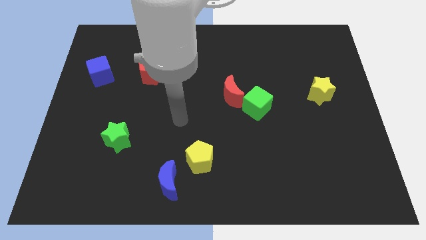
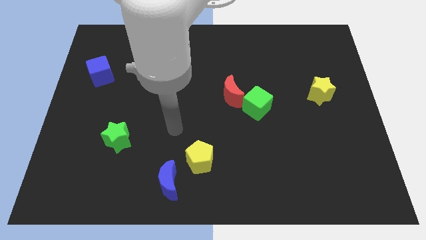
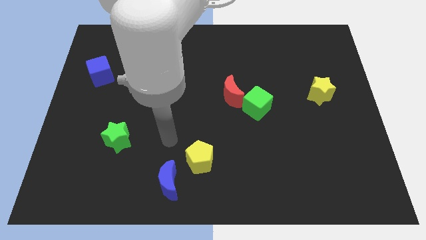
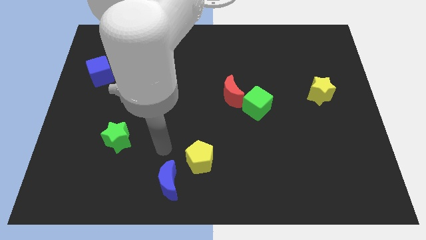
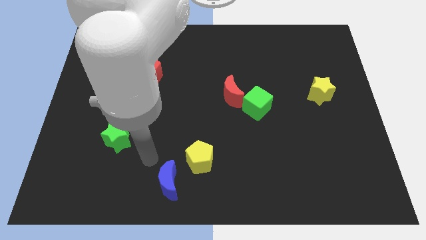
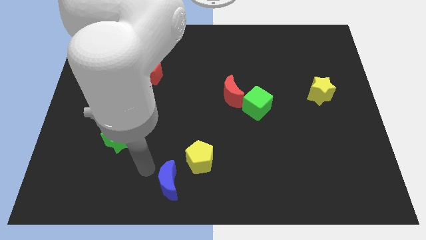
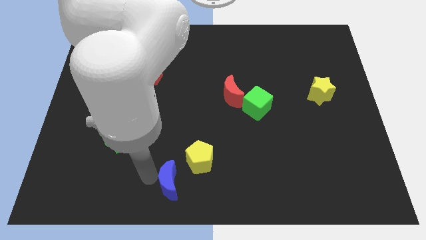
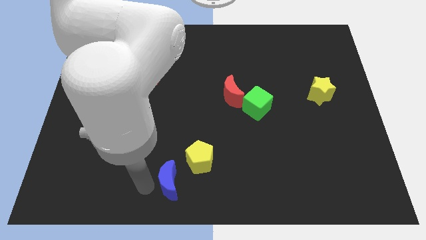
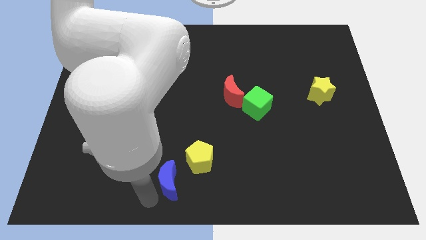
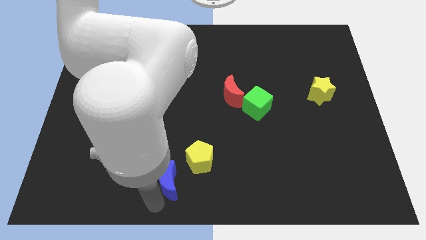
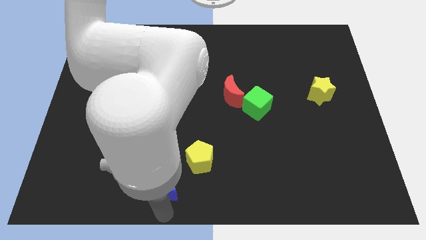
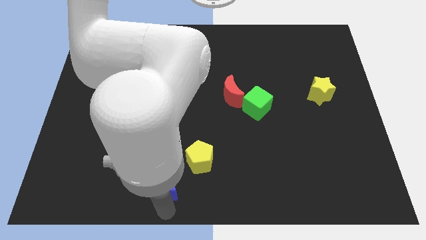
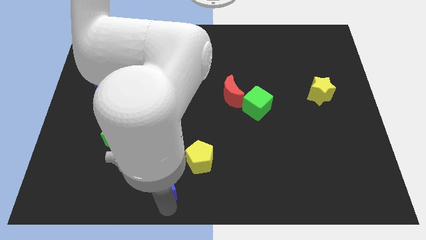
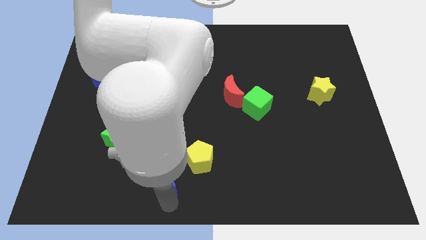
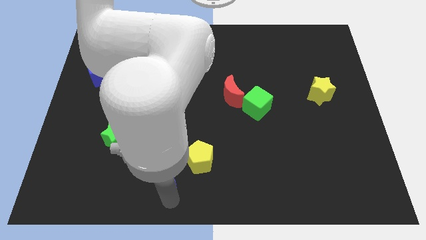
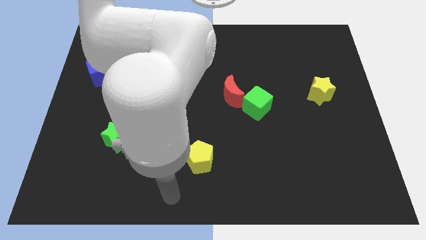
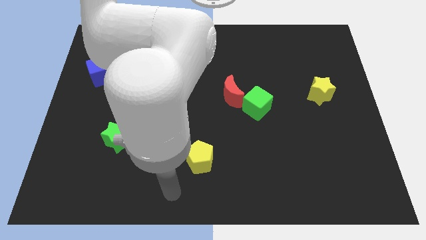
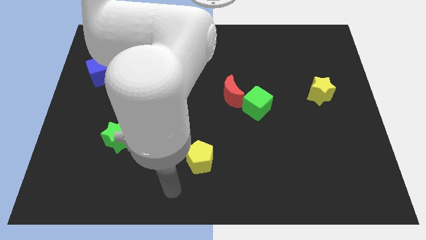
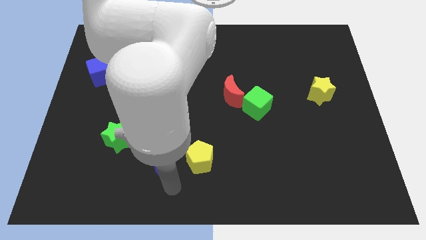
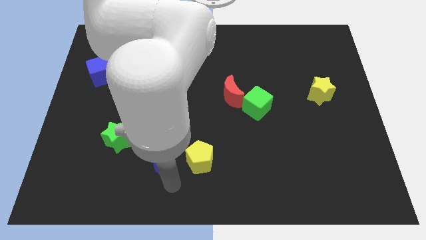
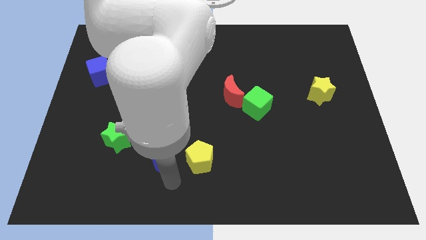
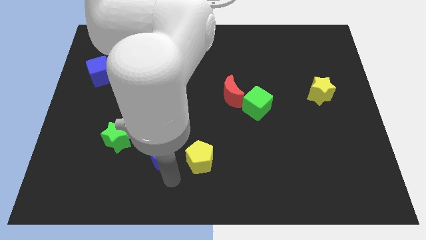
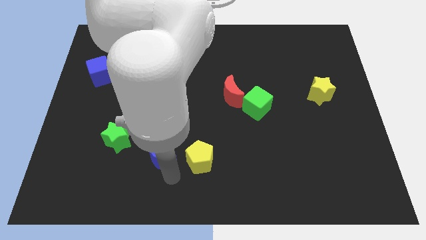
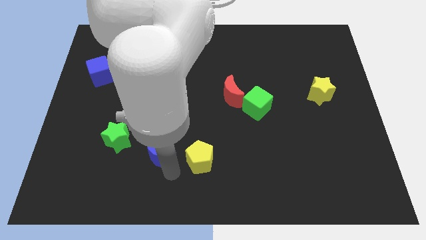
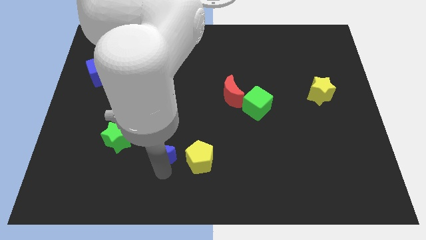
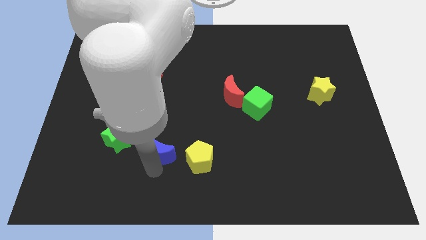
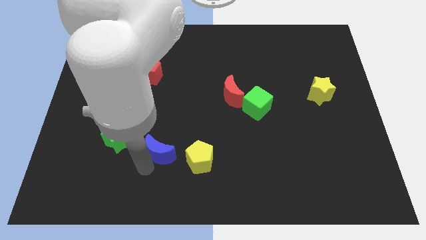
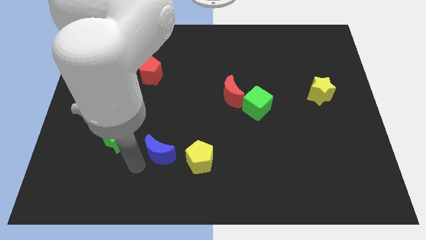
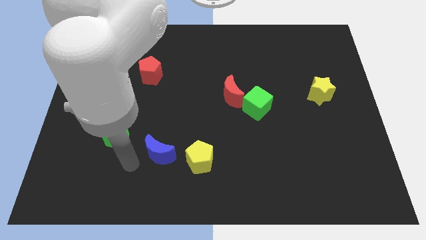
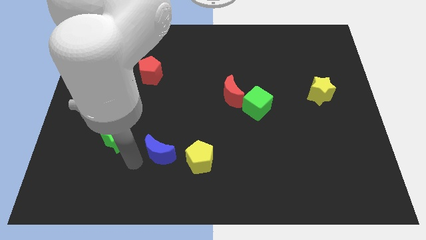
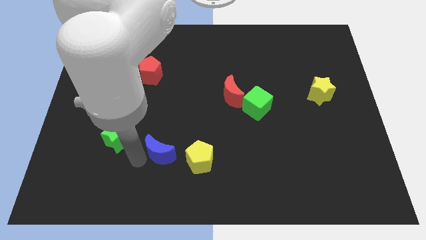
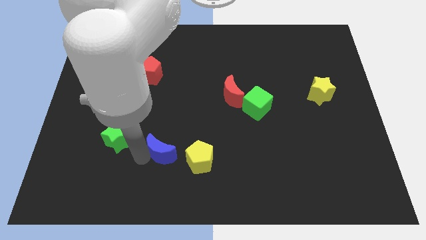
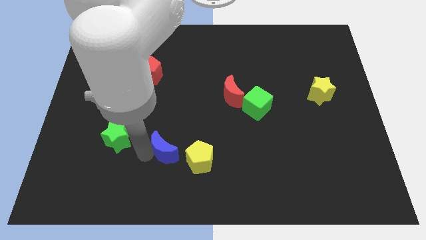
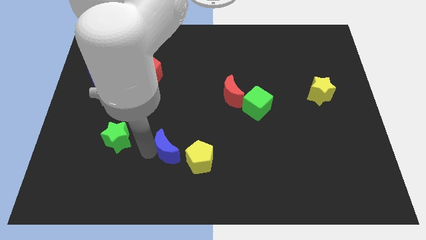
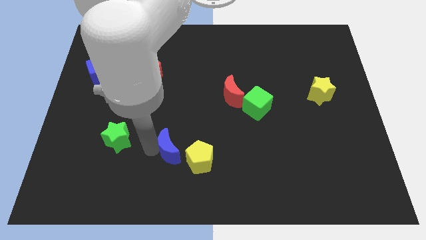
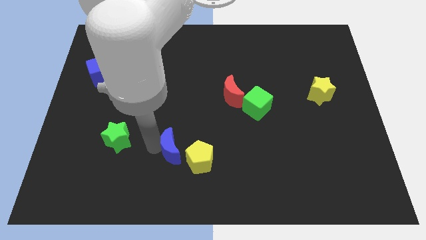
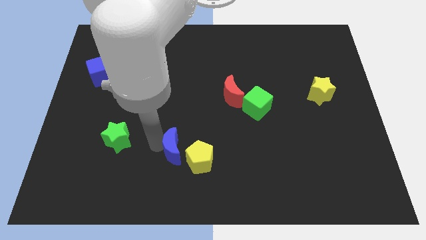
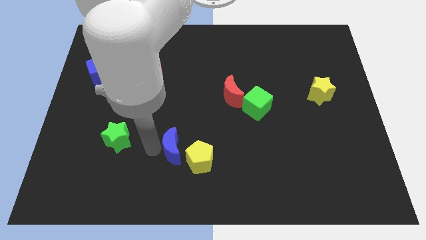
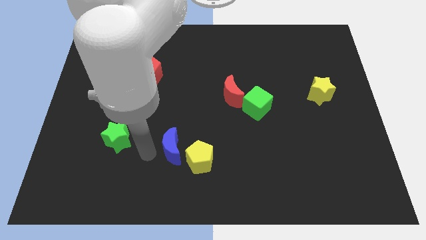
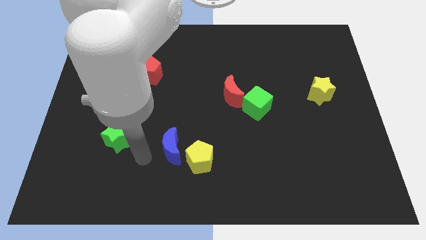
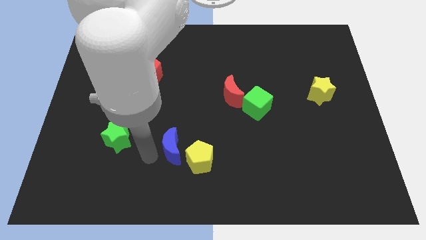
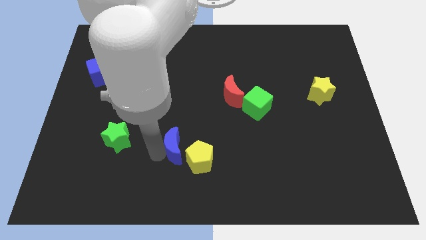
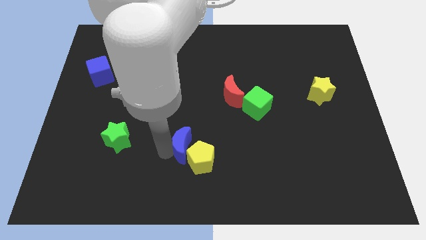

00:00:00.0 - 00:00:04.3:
slide the blue moon somewhat upwards and right diagonally

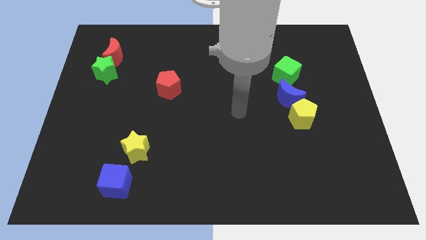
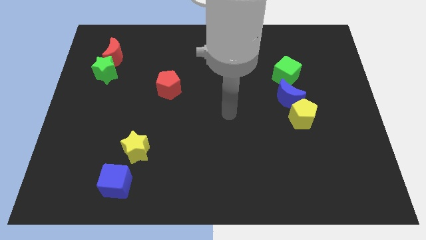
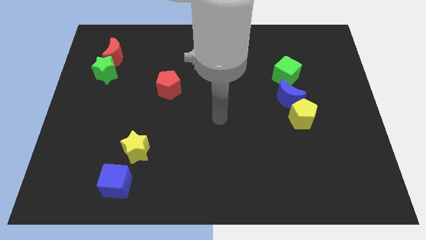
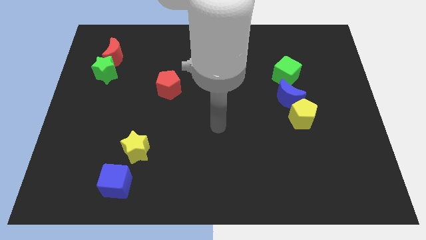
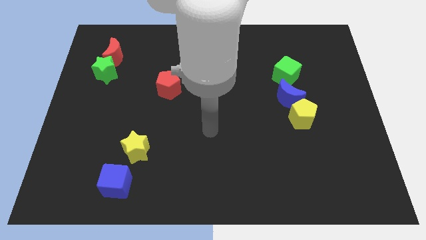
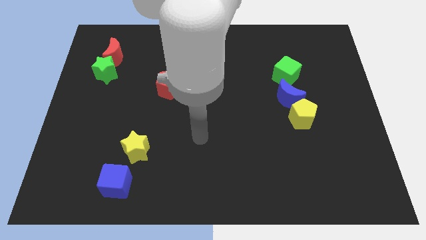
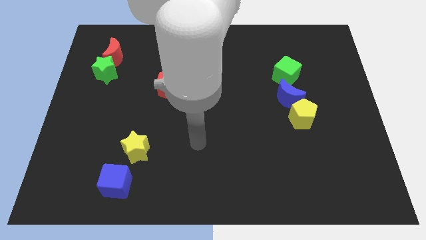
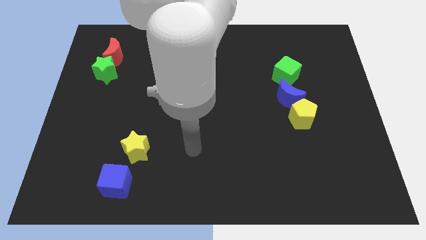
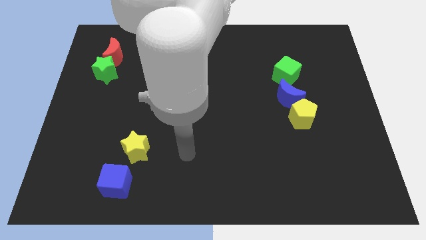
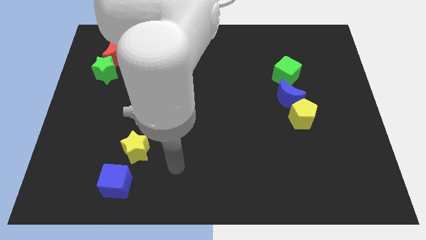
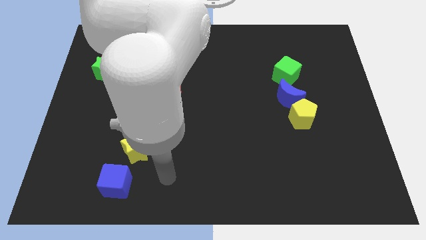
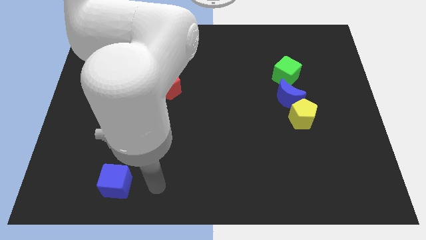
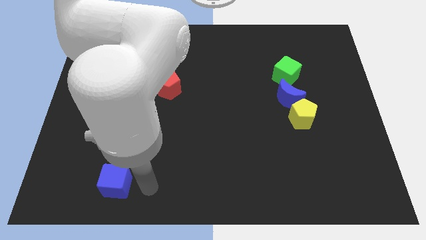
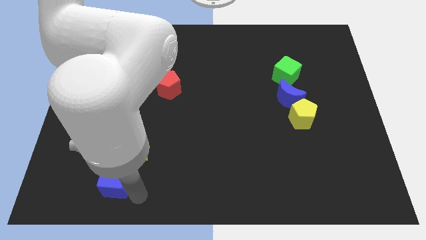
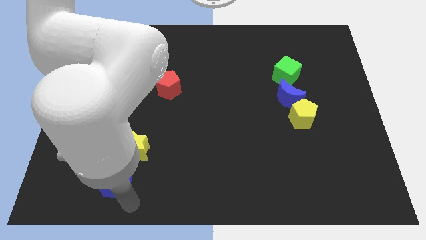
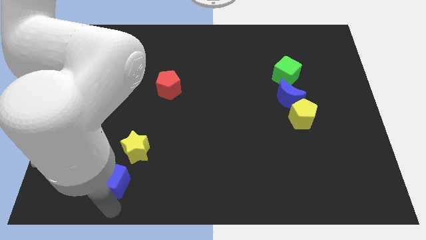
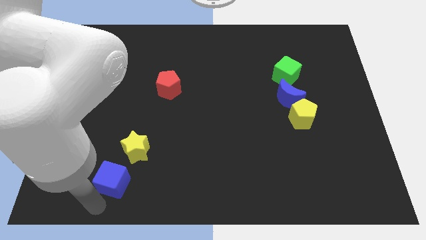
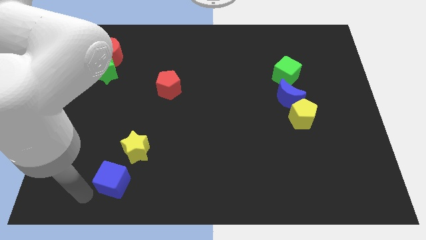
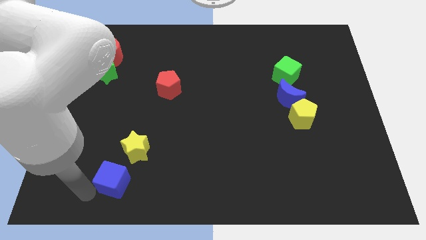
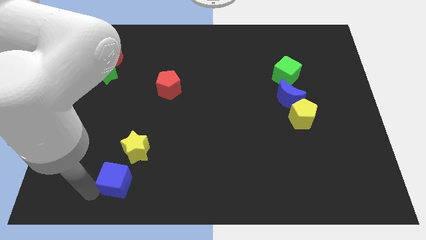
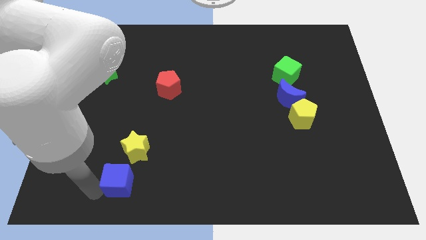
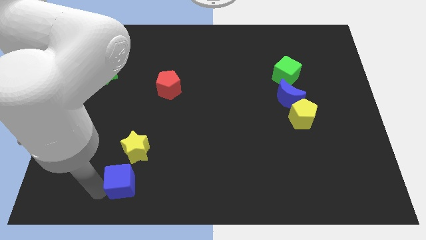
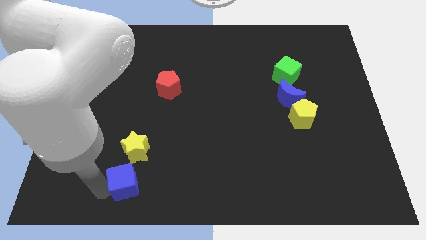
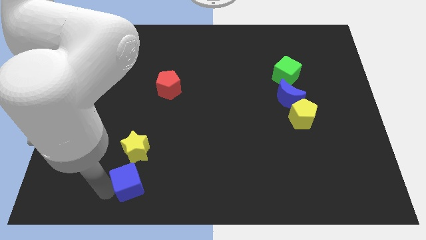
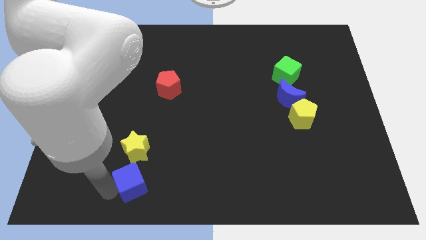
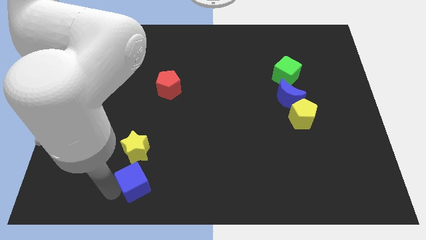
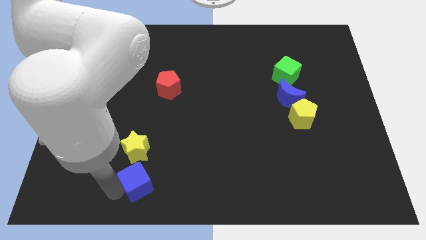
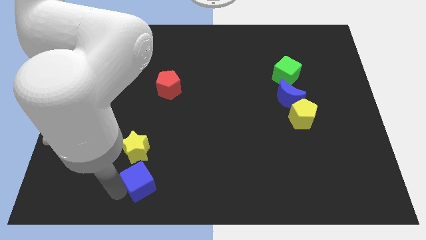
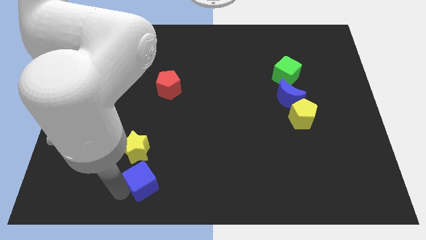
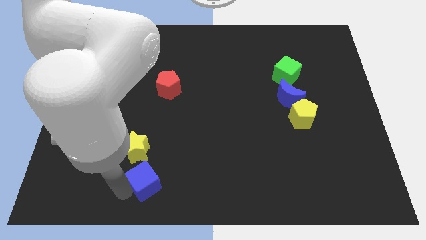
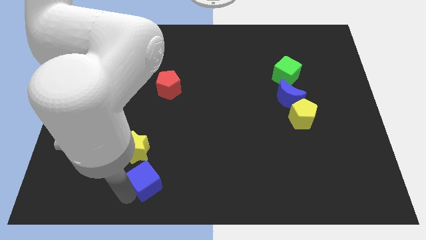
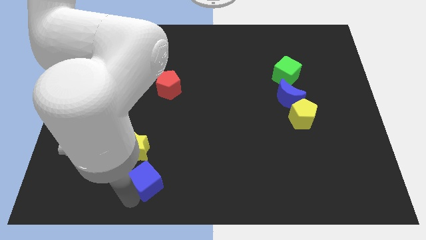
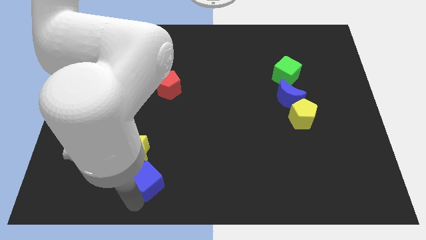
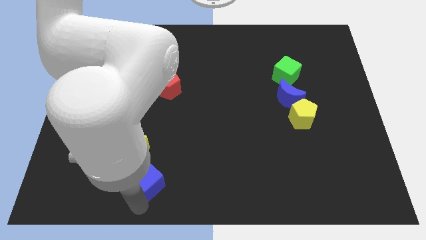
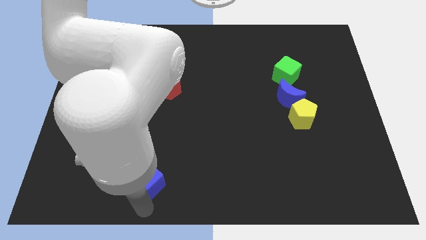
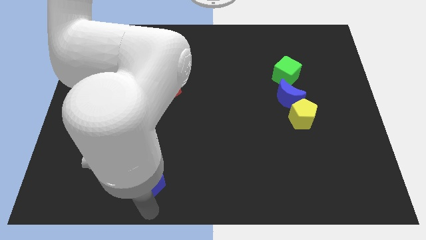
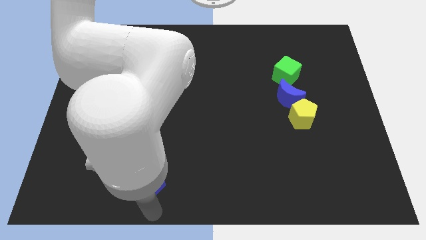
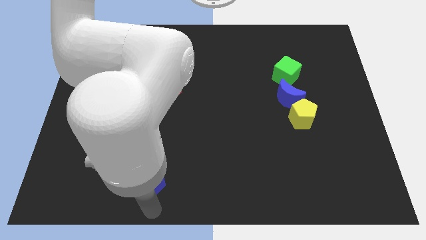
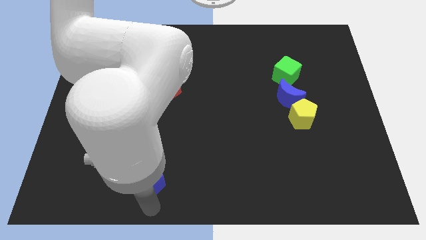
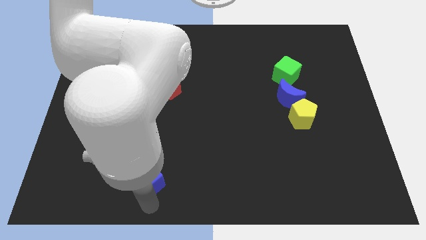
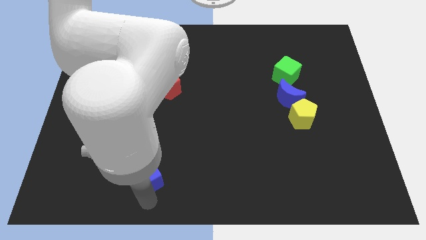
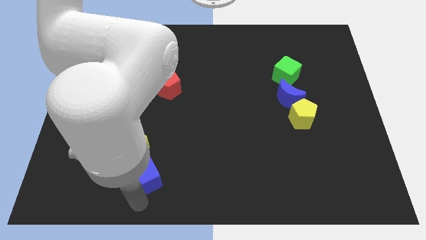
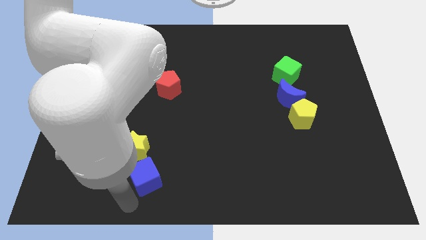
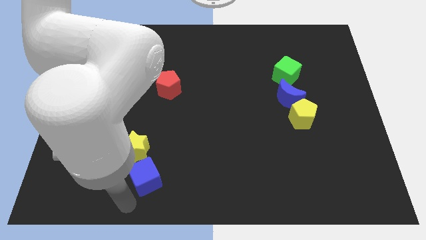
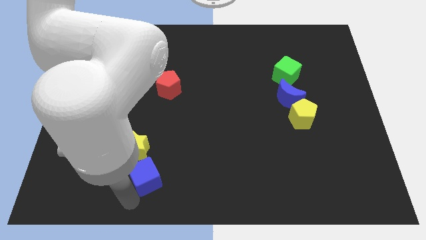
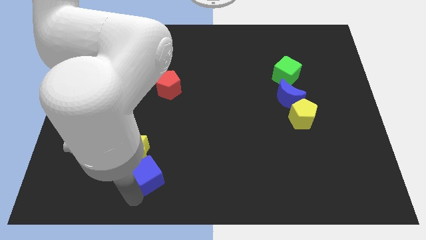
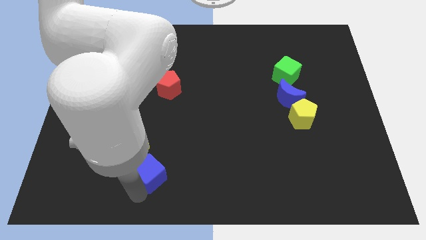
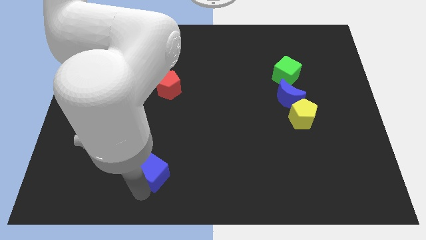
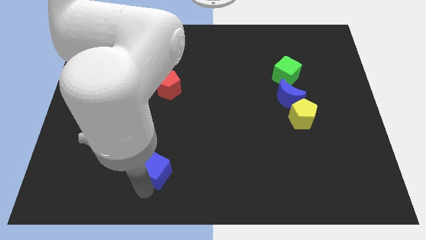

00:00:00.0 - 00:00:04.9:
move the blue cube a little up and right
